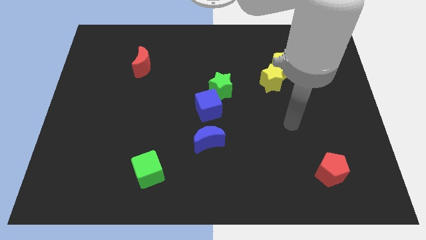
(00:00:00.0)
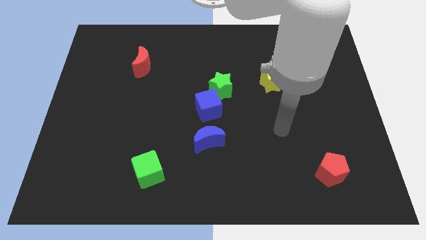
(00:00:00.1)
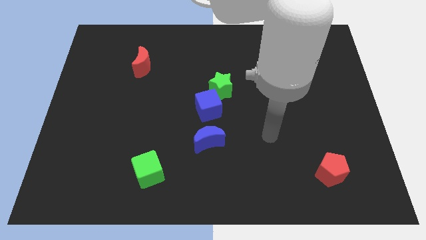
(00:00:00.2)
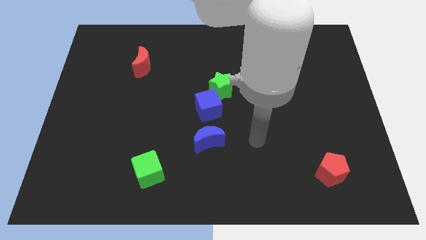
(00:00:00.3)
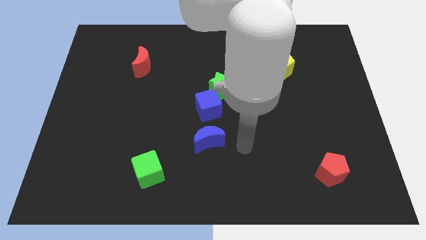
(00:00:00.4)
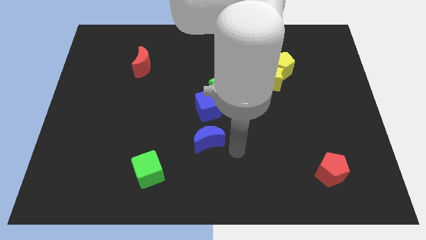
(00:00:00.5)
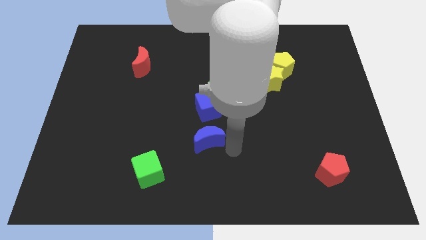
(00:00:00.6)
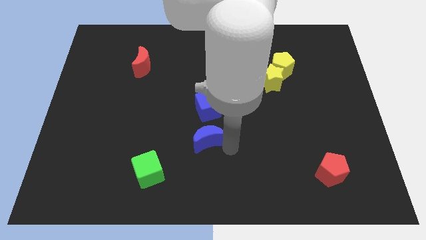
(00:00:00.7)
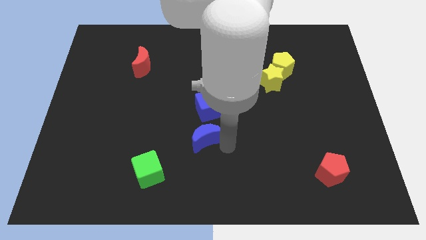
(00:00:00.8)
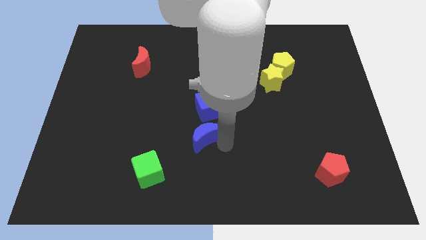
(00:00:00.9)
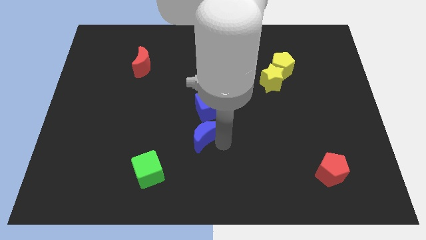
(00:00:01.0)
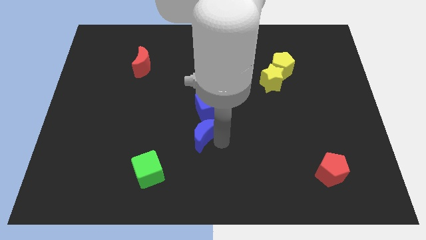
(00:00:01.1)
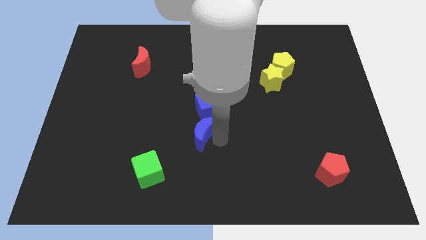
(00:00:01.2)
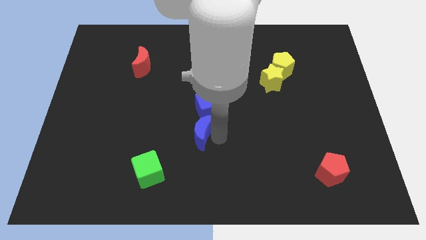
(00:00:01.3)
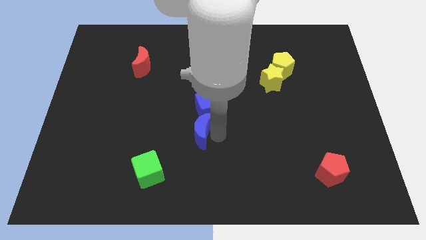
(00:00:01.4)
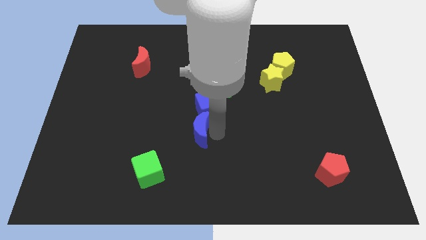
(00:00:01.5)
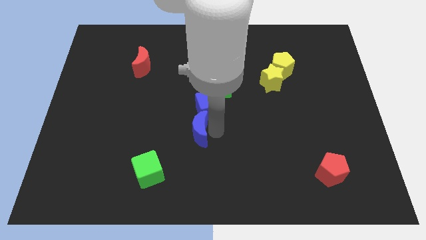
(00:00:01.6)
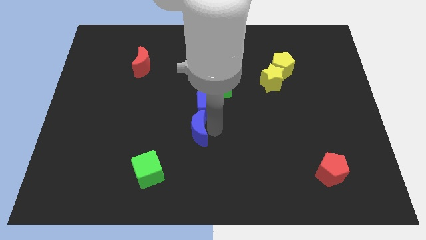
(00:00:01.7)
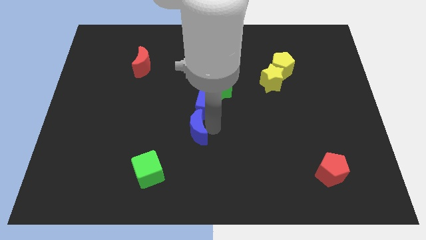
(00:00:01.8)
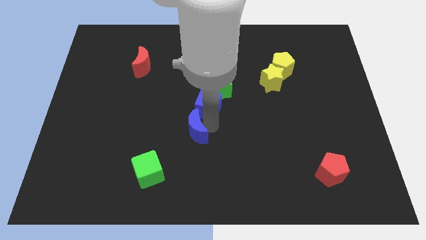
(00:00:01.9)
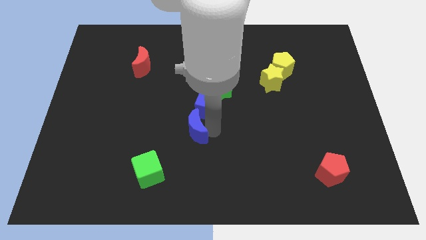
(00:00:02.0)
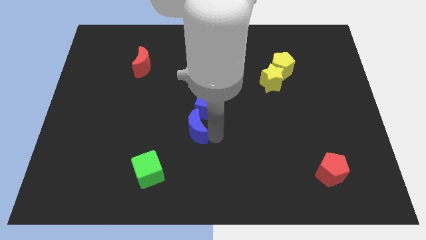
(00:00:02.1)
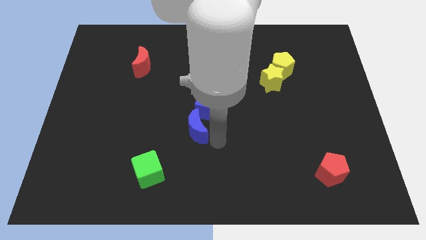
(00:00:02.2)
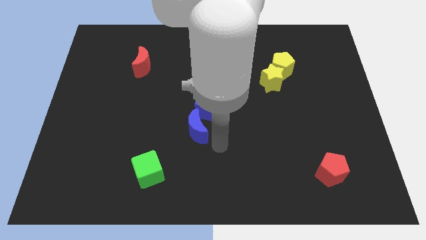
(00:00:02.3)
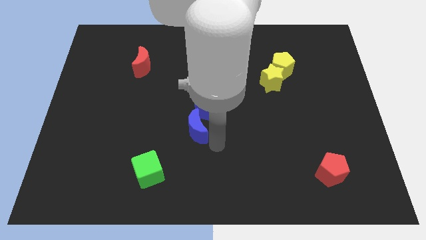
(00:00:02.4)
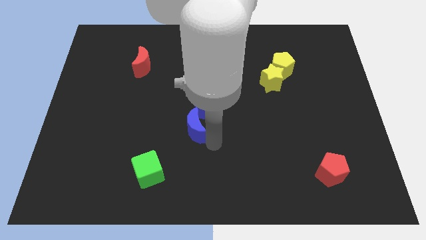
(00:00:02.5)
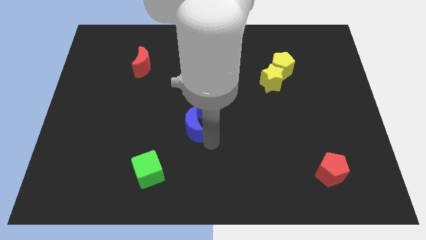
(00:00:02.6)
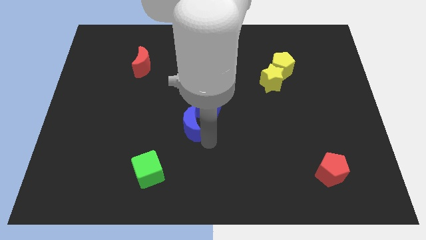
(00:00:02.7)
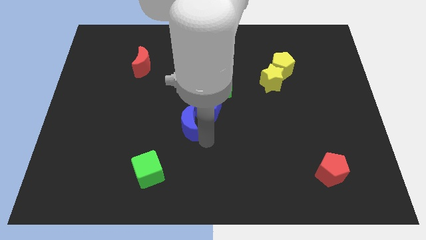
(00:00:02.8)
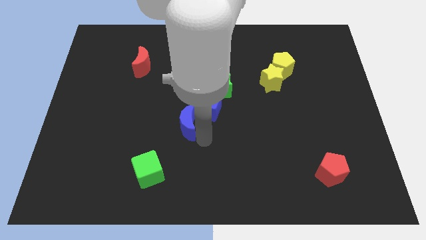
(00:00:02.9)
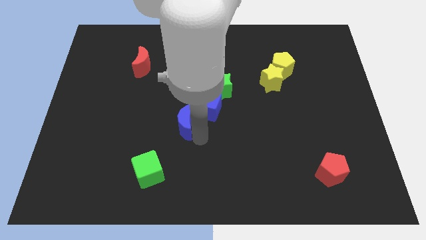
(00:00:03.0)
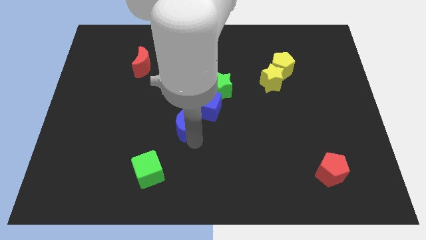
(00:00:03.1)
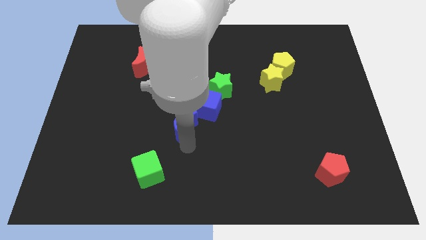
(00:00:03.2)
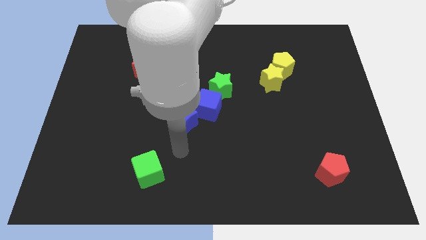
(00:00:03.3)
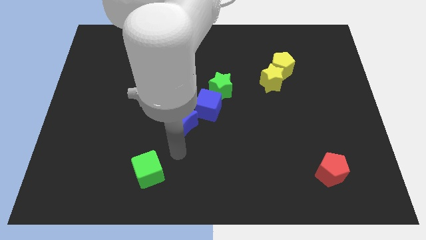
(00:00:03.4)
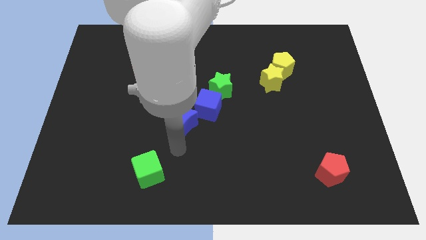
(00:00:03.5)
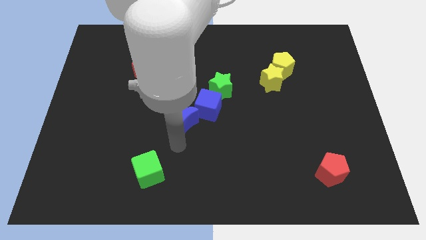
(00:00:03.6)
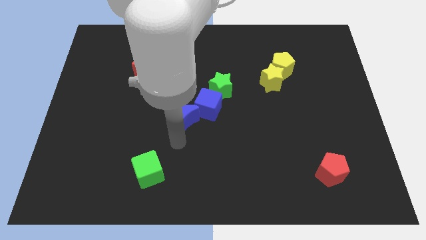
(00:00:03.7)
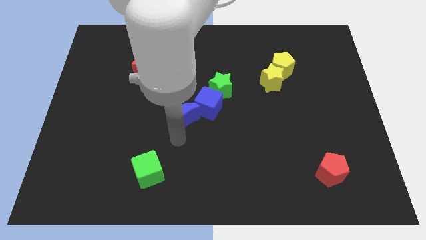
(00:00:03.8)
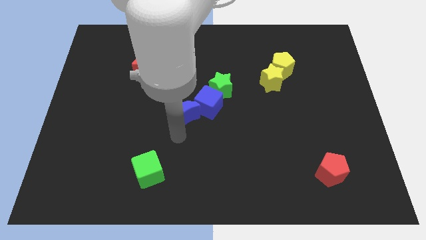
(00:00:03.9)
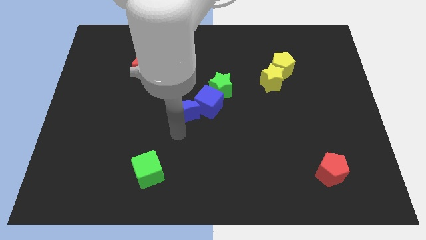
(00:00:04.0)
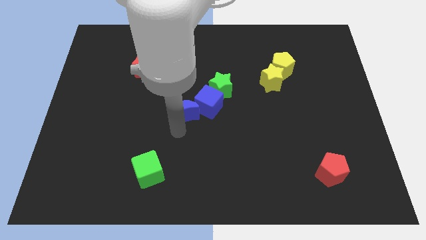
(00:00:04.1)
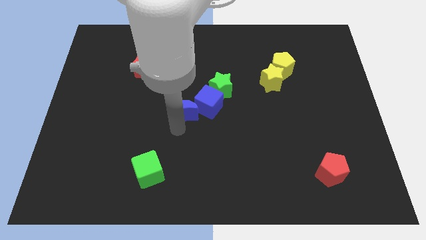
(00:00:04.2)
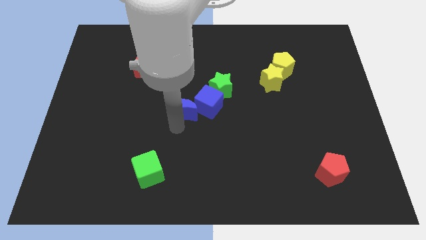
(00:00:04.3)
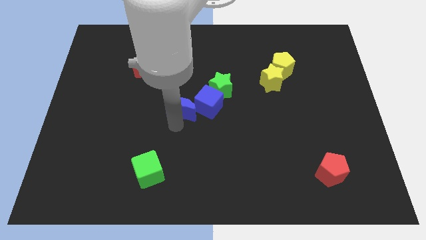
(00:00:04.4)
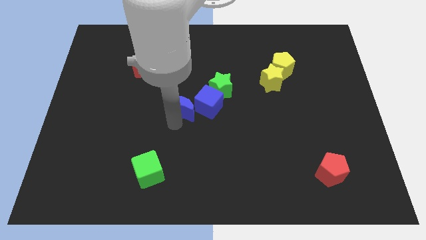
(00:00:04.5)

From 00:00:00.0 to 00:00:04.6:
slightly push the blue moon up

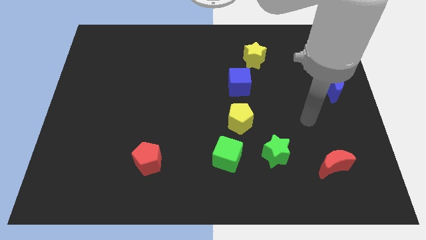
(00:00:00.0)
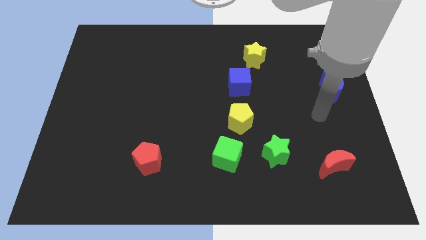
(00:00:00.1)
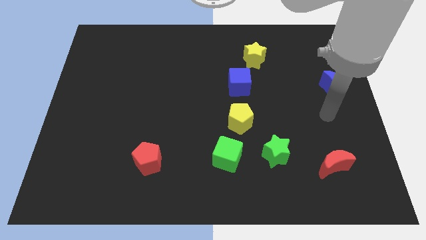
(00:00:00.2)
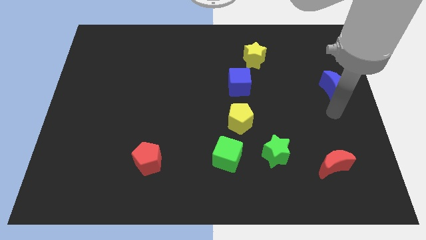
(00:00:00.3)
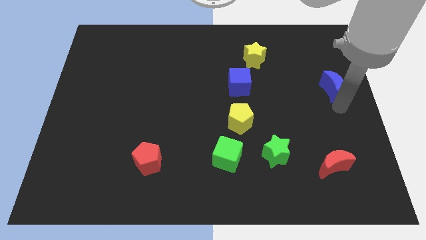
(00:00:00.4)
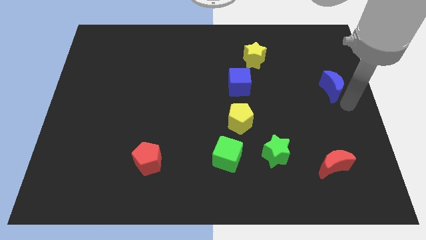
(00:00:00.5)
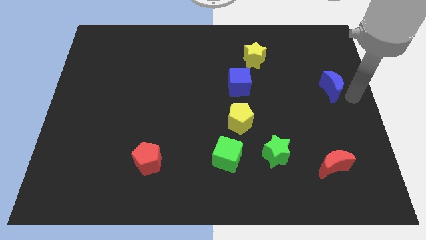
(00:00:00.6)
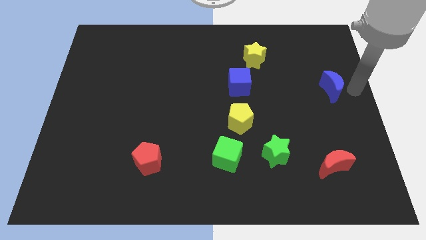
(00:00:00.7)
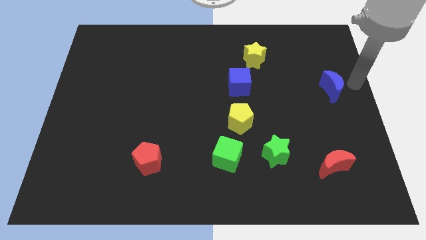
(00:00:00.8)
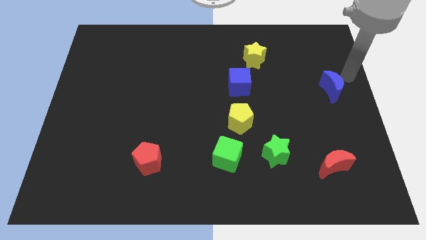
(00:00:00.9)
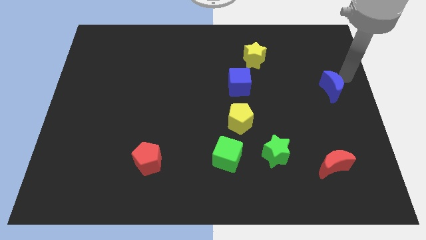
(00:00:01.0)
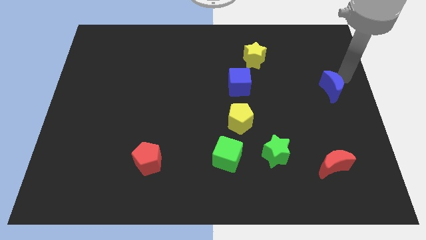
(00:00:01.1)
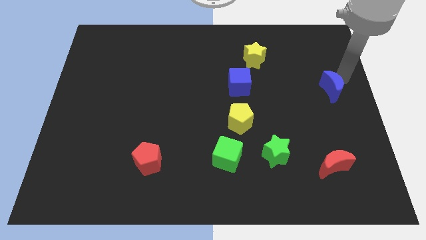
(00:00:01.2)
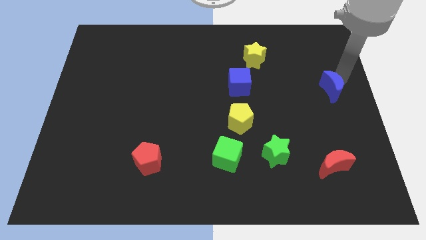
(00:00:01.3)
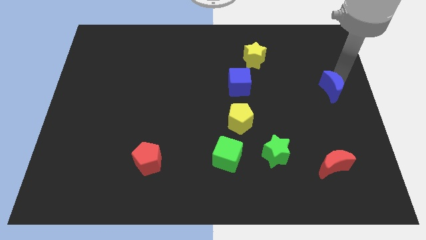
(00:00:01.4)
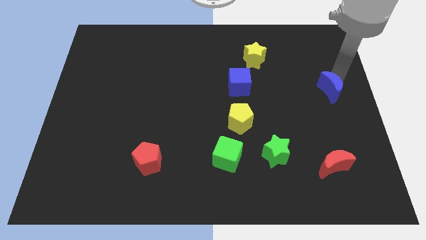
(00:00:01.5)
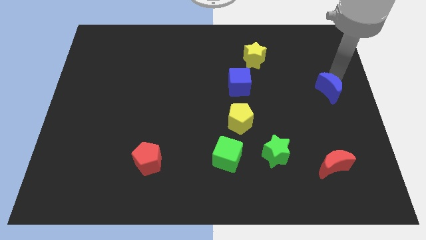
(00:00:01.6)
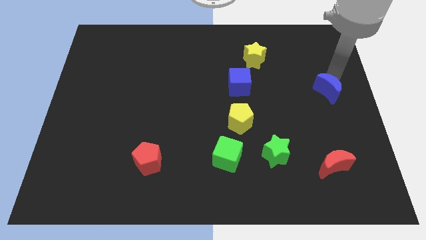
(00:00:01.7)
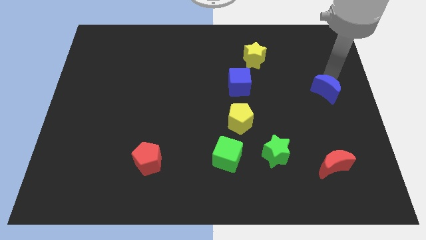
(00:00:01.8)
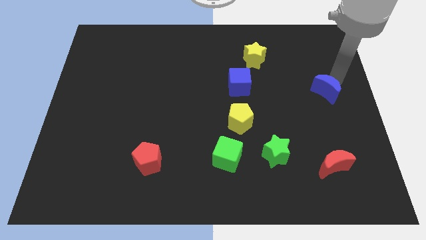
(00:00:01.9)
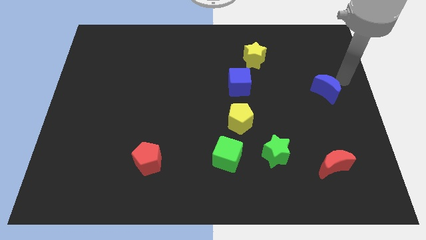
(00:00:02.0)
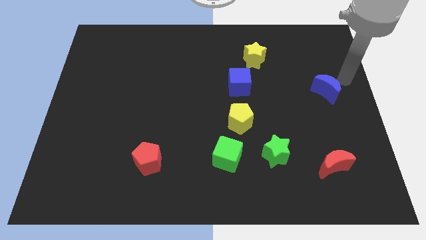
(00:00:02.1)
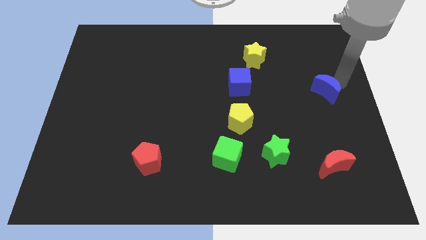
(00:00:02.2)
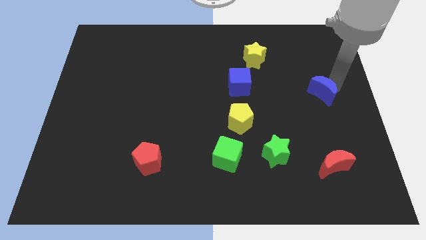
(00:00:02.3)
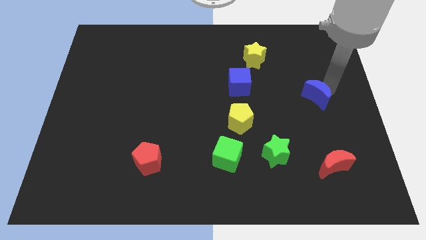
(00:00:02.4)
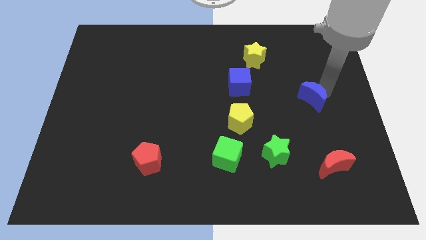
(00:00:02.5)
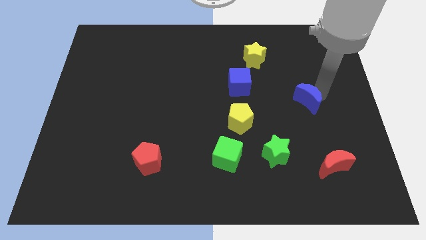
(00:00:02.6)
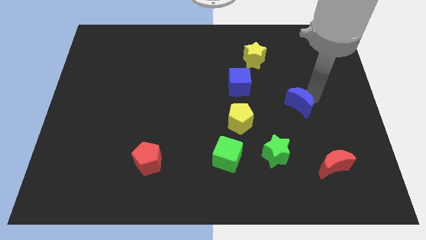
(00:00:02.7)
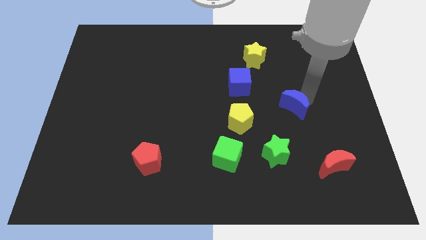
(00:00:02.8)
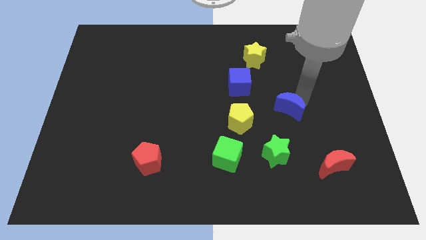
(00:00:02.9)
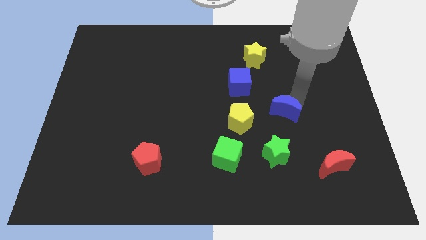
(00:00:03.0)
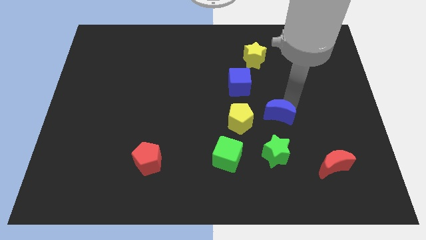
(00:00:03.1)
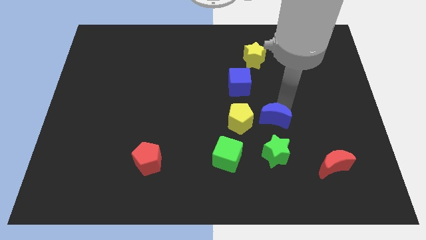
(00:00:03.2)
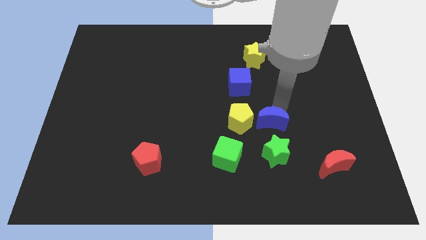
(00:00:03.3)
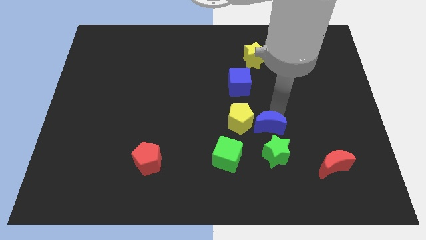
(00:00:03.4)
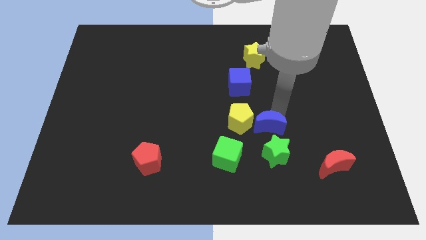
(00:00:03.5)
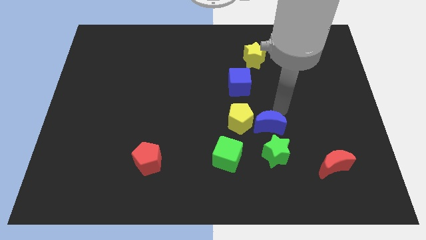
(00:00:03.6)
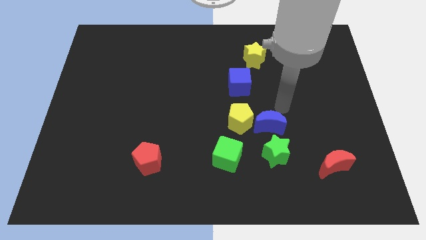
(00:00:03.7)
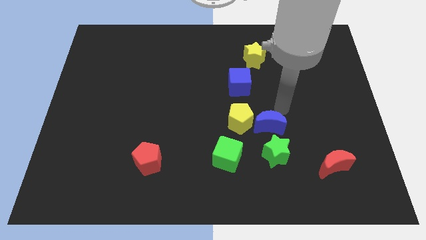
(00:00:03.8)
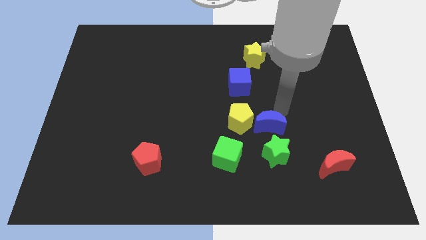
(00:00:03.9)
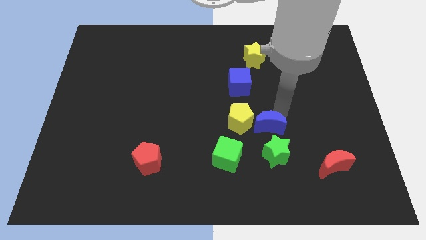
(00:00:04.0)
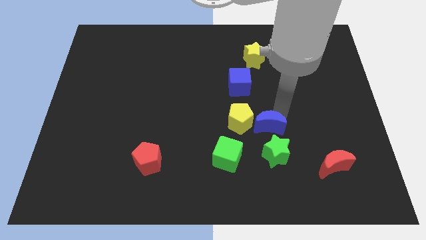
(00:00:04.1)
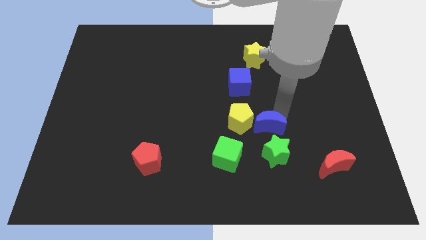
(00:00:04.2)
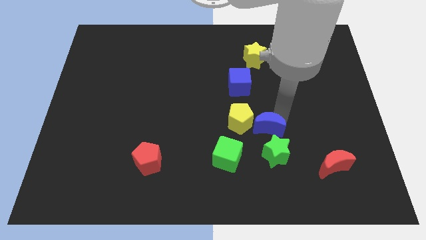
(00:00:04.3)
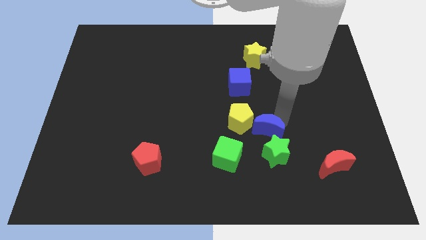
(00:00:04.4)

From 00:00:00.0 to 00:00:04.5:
move the blue moon downwards and left diagonally
